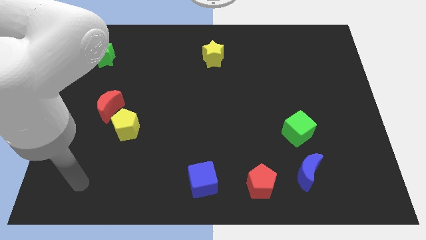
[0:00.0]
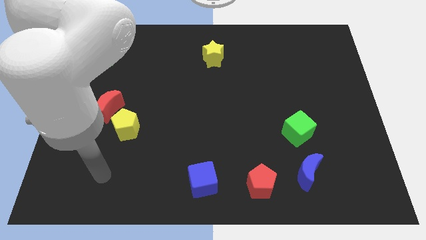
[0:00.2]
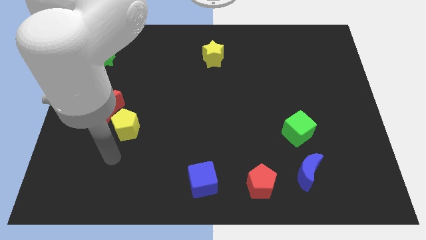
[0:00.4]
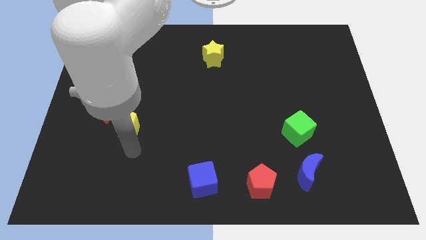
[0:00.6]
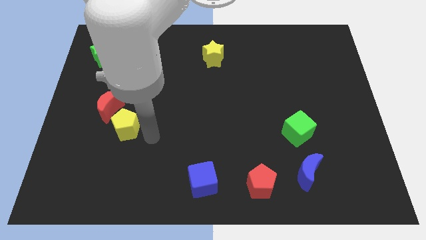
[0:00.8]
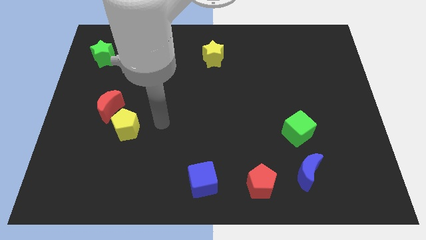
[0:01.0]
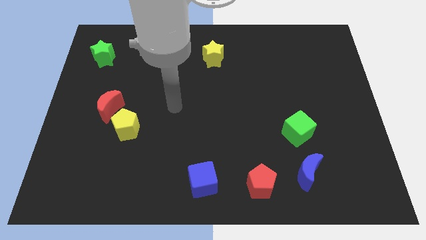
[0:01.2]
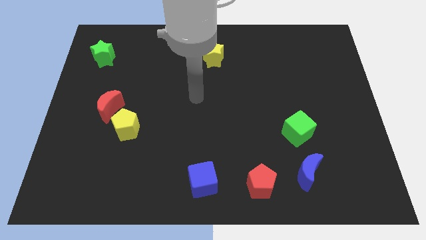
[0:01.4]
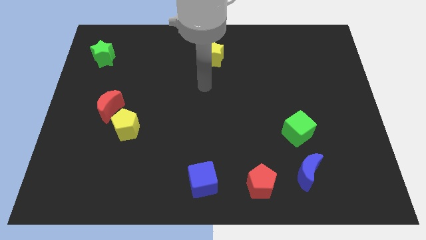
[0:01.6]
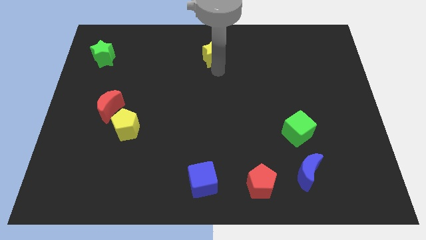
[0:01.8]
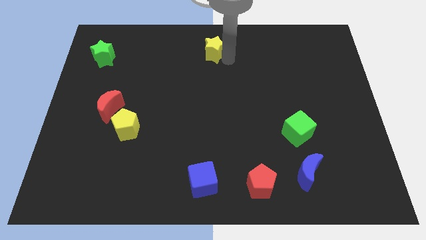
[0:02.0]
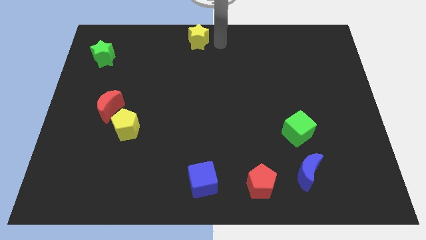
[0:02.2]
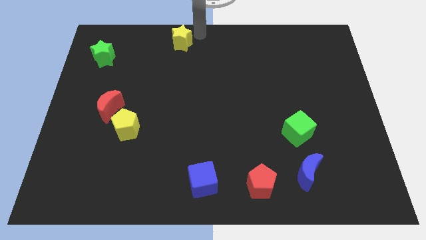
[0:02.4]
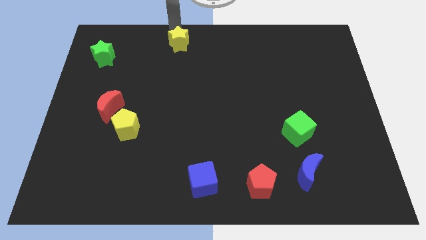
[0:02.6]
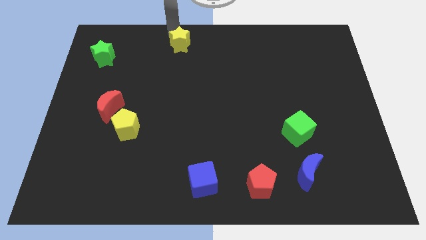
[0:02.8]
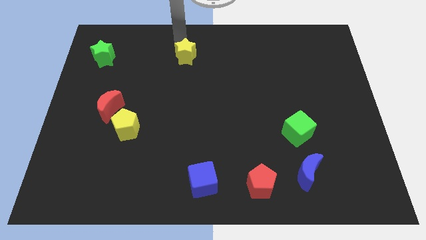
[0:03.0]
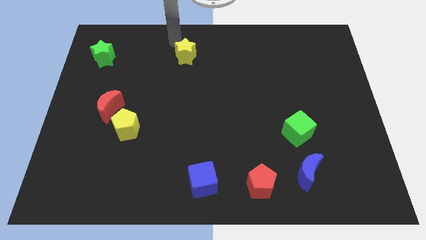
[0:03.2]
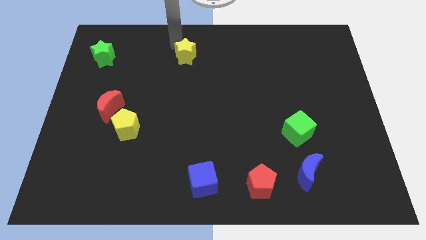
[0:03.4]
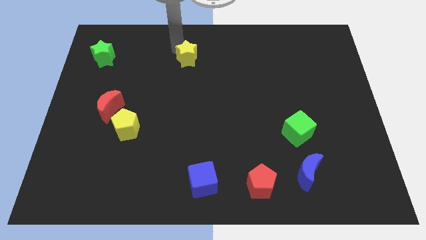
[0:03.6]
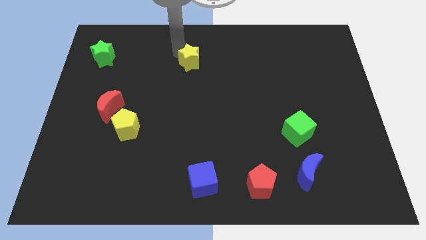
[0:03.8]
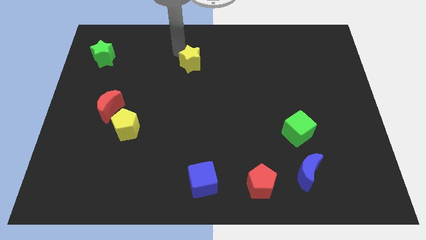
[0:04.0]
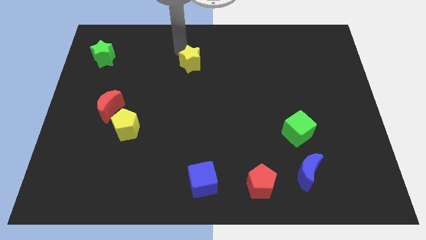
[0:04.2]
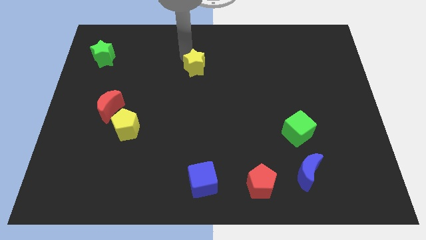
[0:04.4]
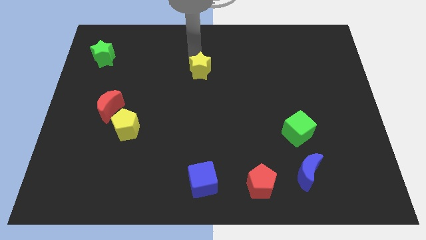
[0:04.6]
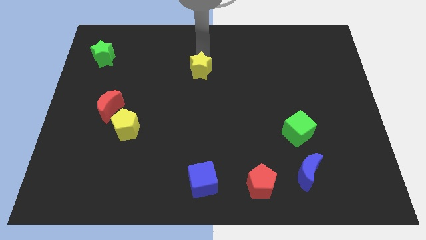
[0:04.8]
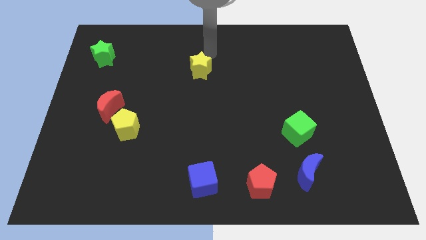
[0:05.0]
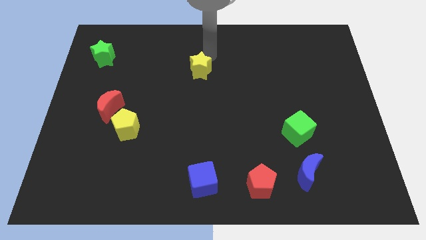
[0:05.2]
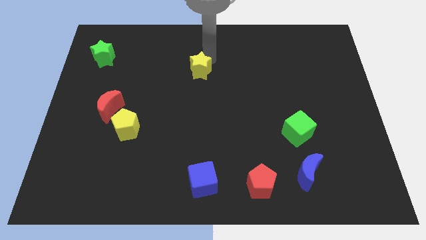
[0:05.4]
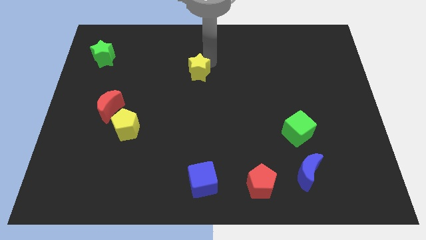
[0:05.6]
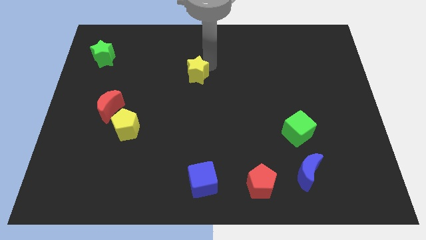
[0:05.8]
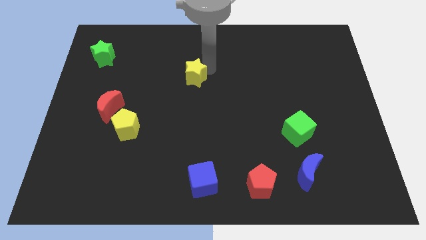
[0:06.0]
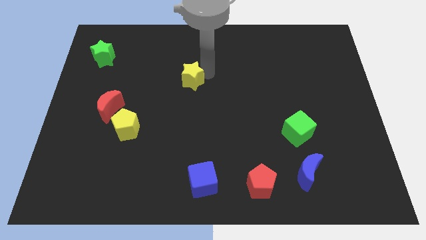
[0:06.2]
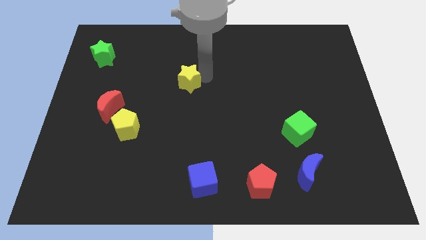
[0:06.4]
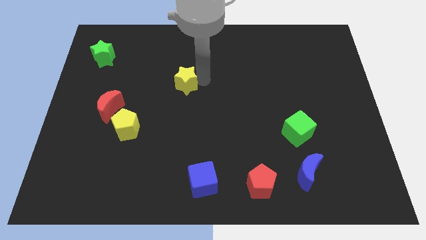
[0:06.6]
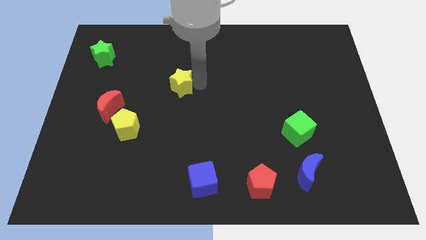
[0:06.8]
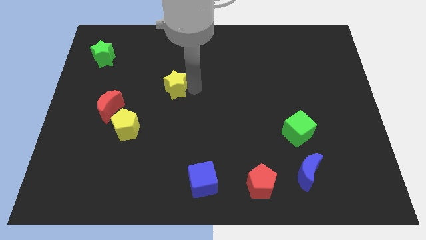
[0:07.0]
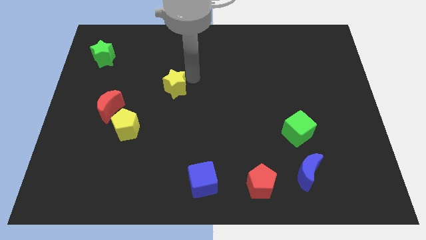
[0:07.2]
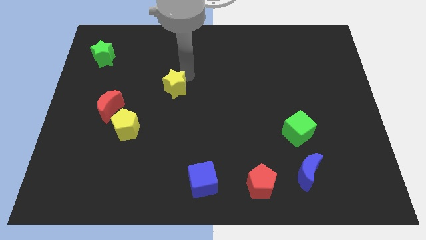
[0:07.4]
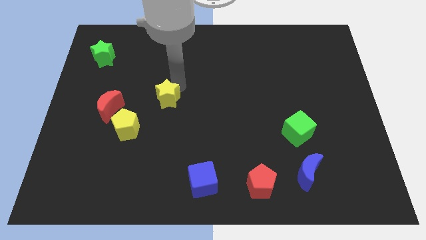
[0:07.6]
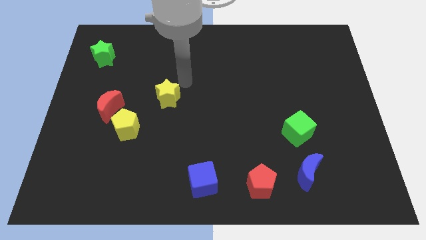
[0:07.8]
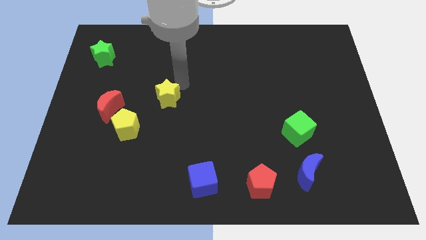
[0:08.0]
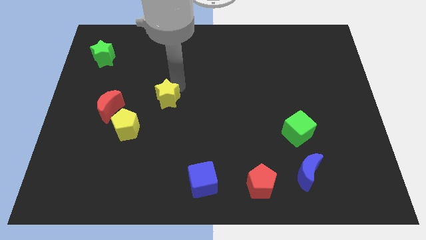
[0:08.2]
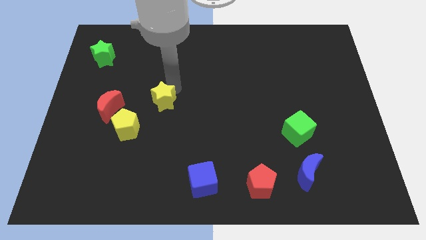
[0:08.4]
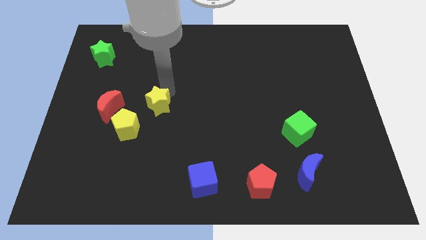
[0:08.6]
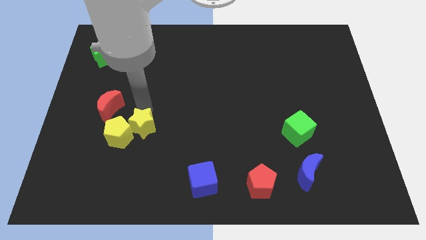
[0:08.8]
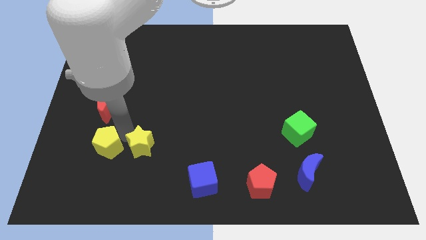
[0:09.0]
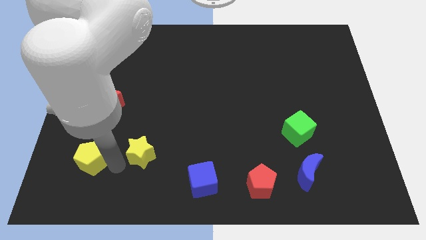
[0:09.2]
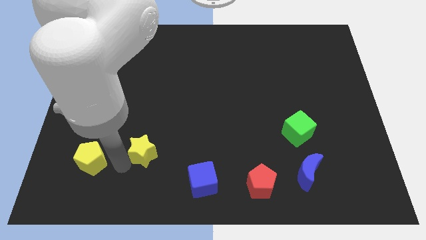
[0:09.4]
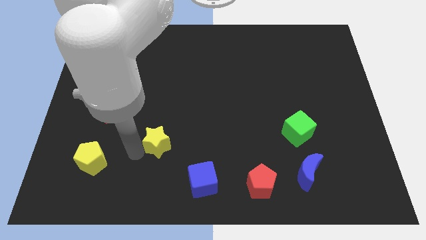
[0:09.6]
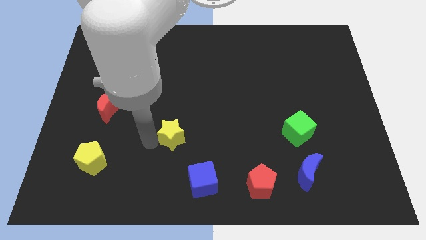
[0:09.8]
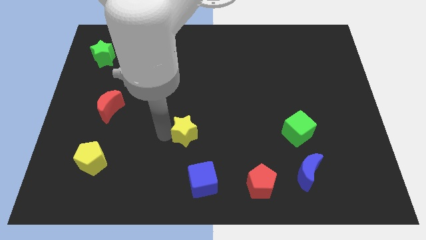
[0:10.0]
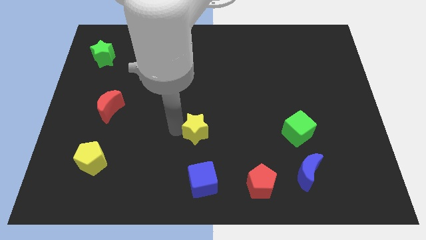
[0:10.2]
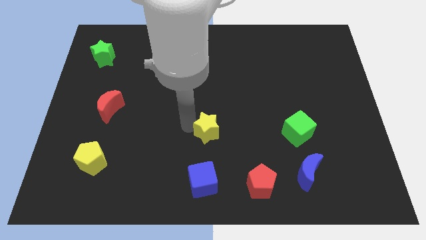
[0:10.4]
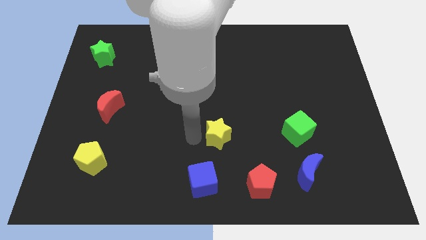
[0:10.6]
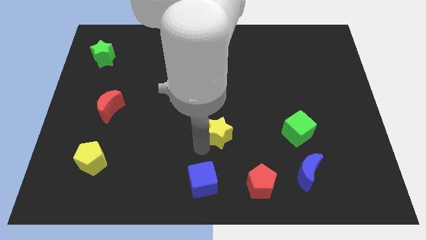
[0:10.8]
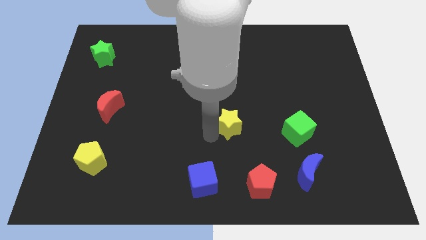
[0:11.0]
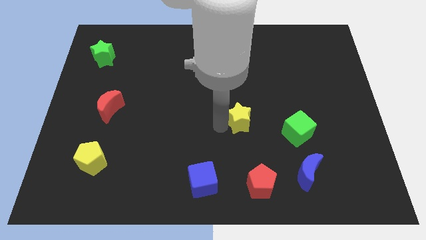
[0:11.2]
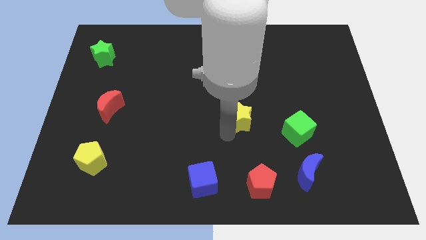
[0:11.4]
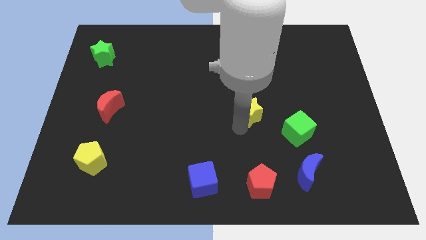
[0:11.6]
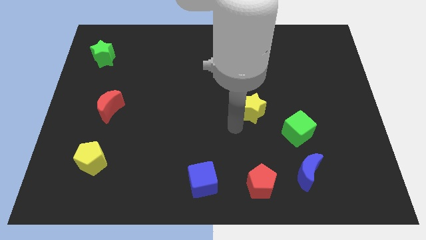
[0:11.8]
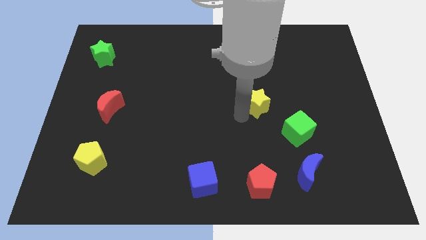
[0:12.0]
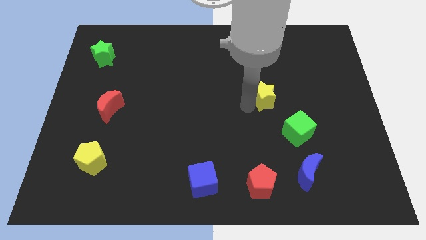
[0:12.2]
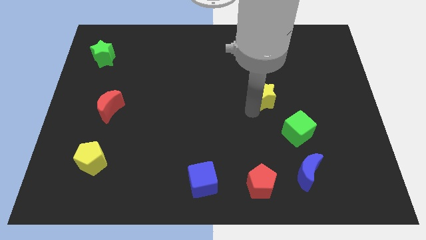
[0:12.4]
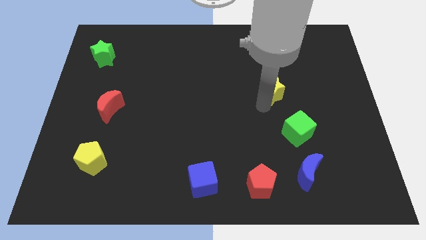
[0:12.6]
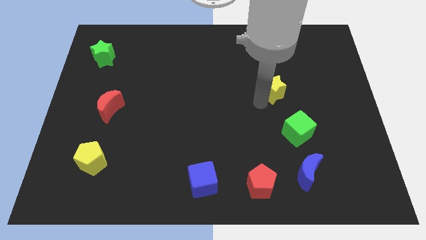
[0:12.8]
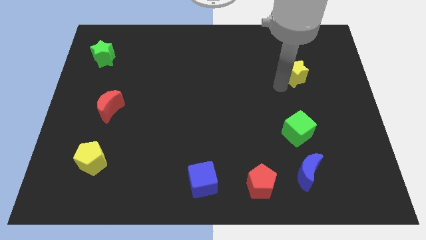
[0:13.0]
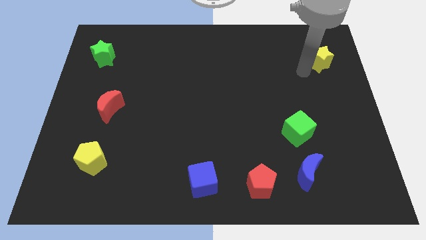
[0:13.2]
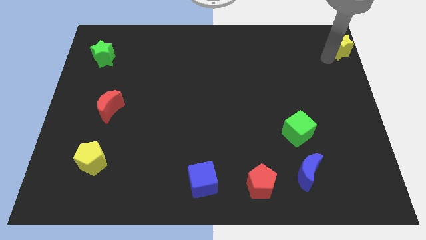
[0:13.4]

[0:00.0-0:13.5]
push the yellow star to the upper right corner
